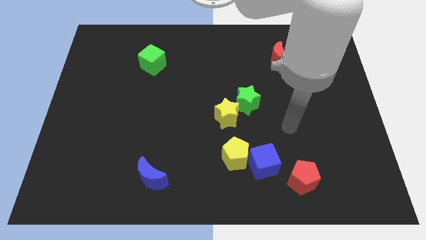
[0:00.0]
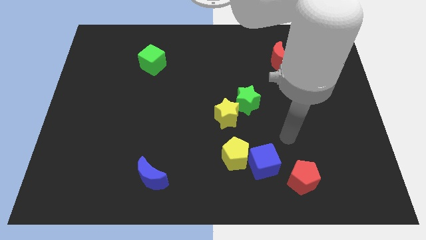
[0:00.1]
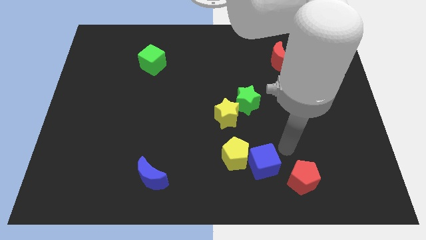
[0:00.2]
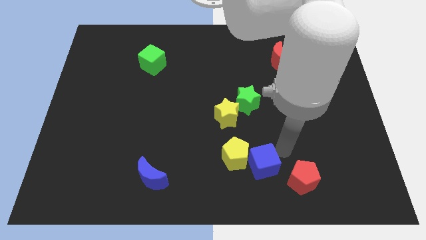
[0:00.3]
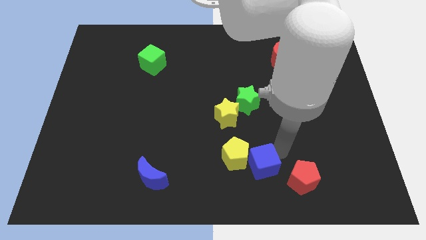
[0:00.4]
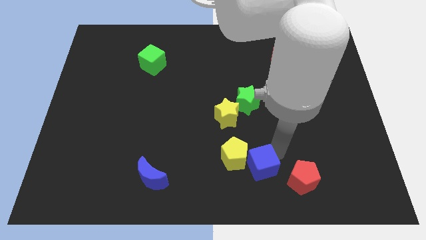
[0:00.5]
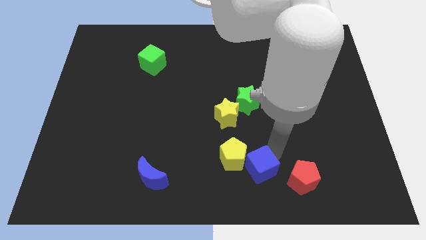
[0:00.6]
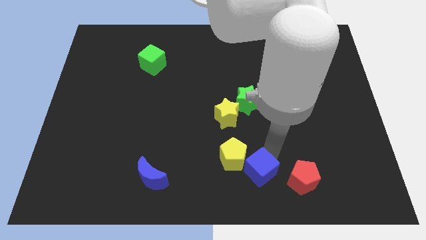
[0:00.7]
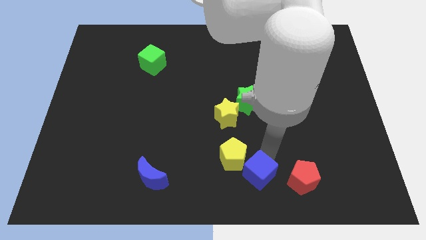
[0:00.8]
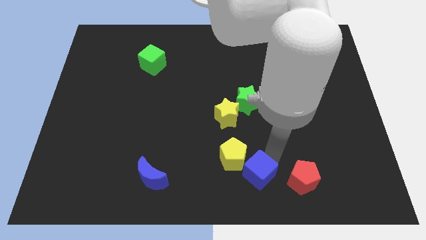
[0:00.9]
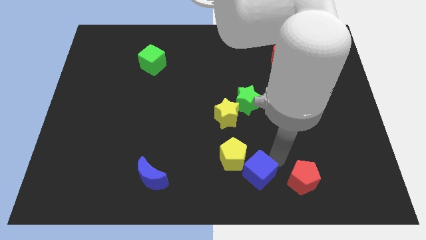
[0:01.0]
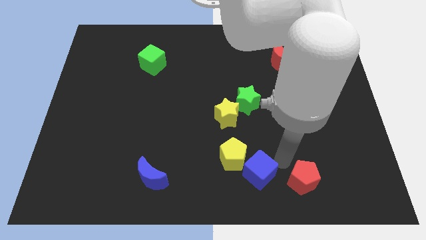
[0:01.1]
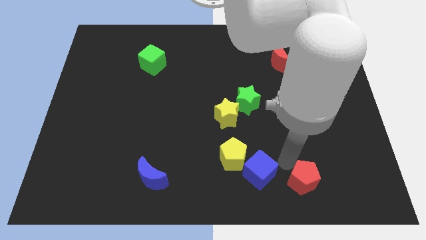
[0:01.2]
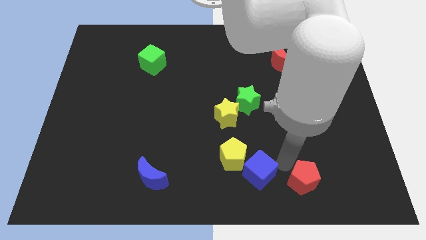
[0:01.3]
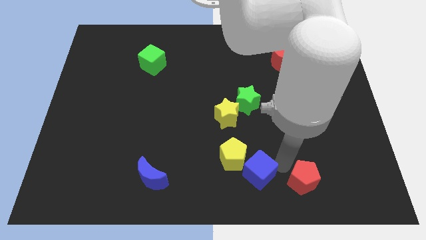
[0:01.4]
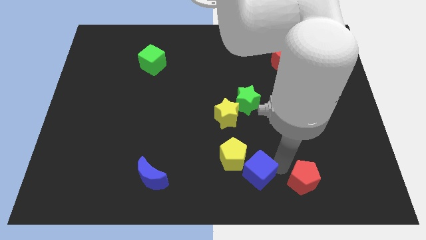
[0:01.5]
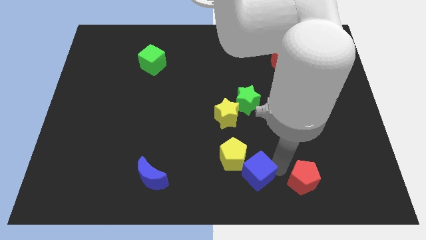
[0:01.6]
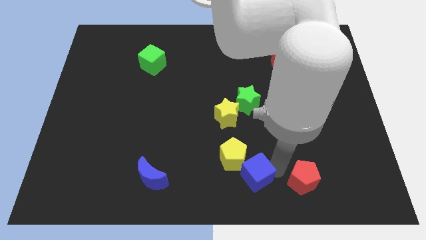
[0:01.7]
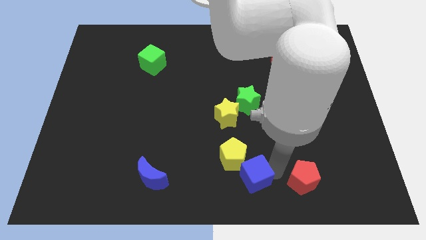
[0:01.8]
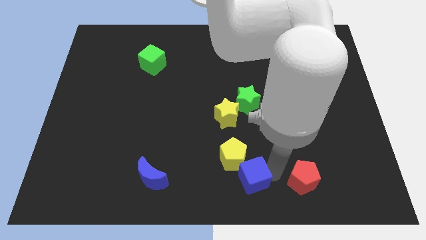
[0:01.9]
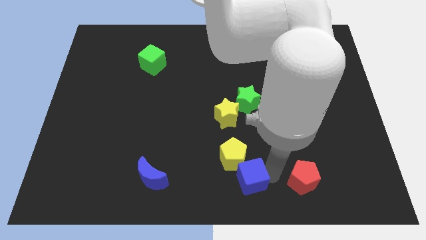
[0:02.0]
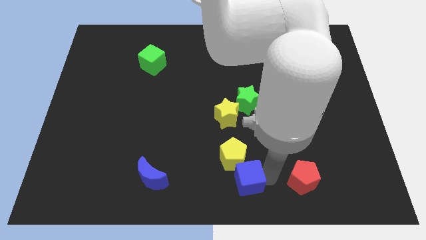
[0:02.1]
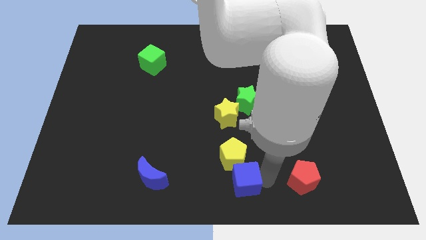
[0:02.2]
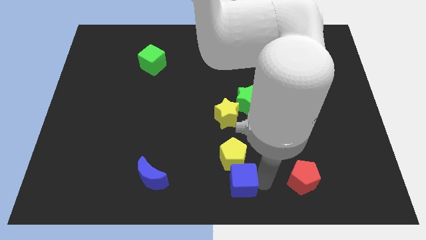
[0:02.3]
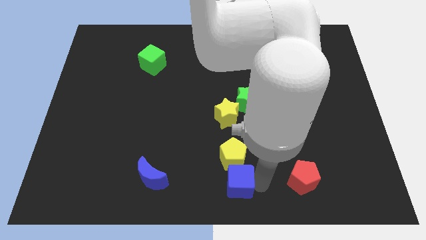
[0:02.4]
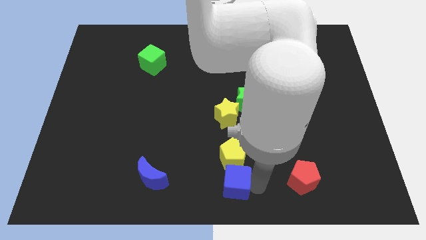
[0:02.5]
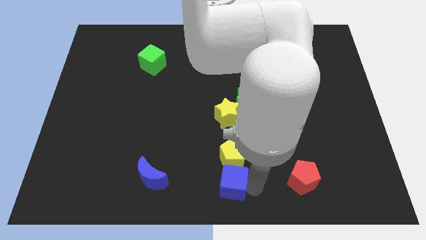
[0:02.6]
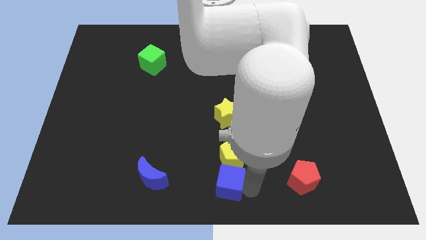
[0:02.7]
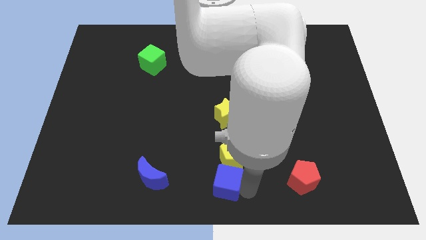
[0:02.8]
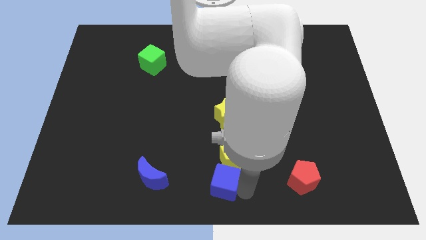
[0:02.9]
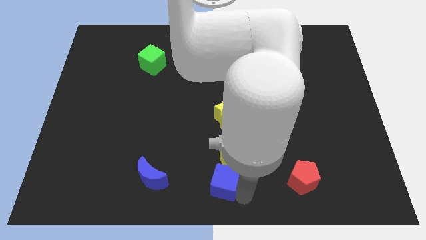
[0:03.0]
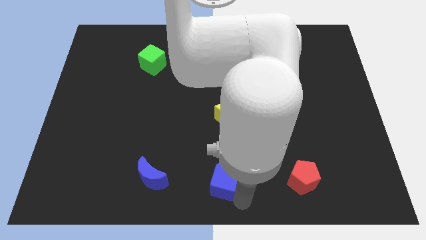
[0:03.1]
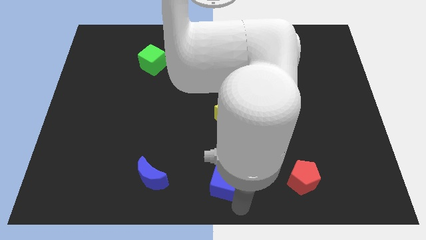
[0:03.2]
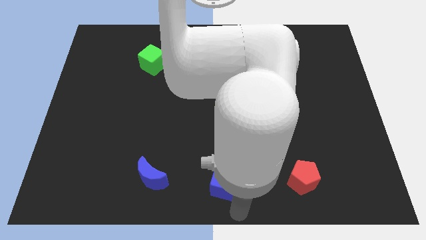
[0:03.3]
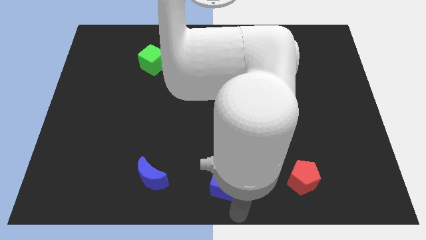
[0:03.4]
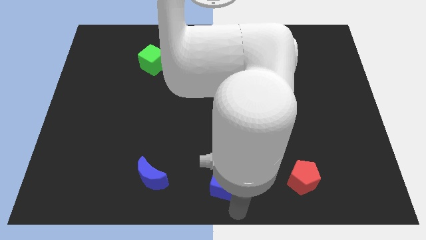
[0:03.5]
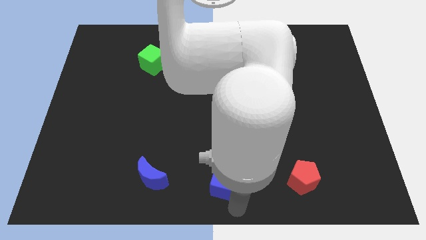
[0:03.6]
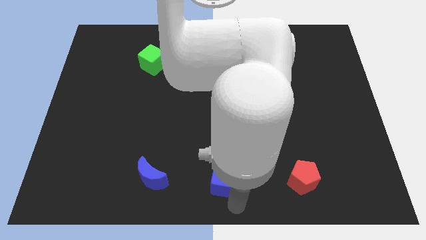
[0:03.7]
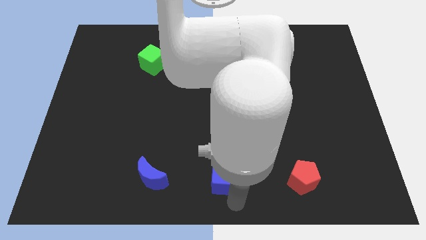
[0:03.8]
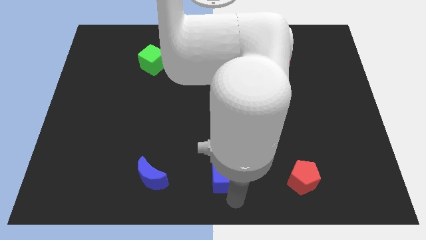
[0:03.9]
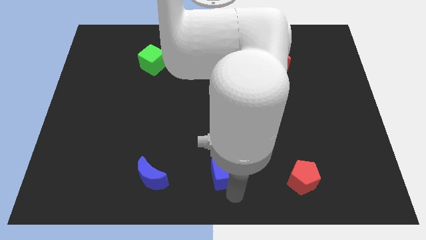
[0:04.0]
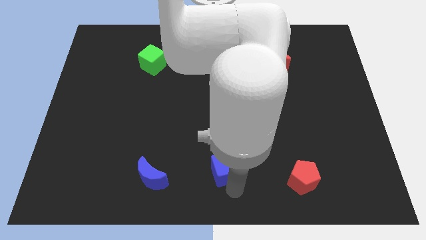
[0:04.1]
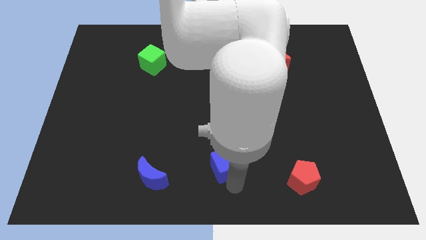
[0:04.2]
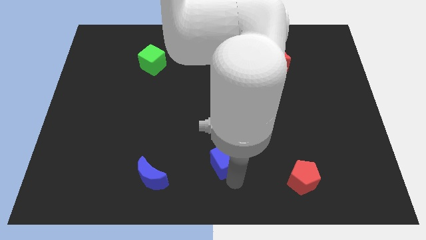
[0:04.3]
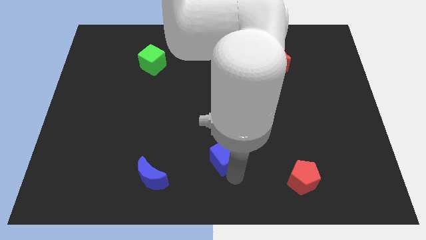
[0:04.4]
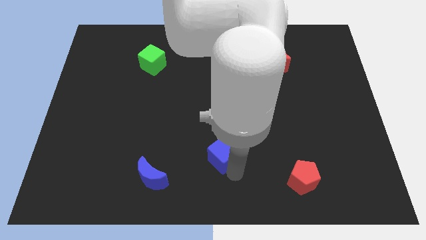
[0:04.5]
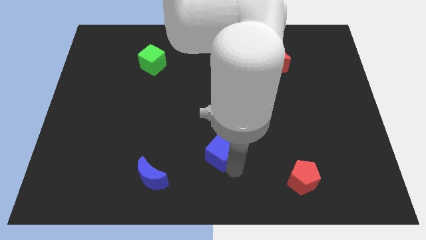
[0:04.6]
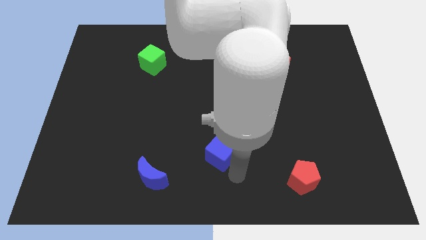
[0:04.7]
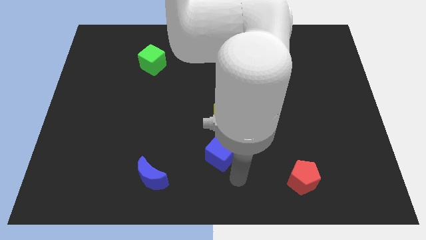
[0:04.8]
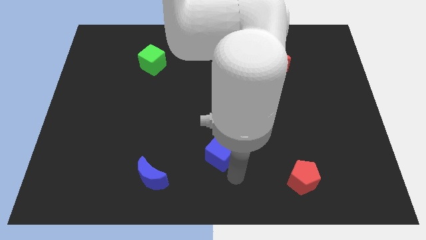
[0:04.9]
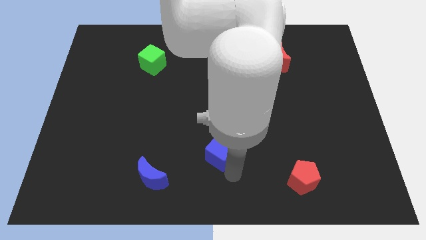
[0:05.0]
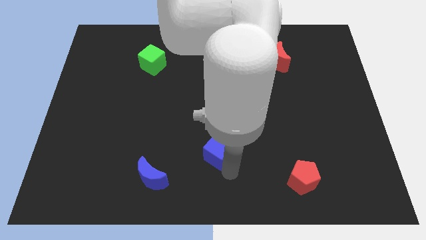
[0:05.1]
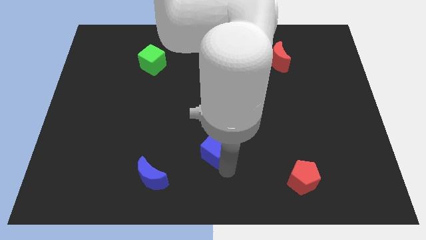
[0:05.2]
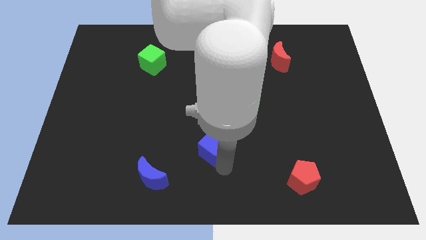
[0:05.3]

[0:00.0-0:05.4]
put the blue cube diagonally down and to the left of the yellow star

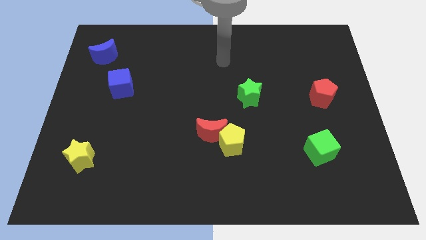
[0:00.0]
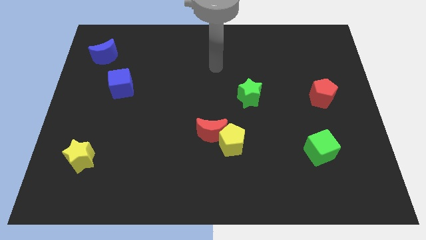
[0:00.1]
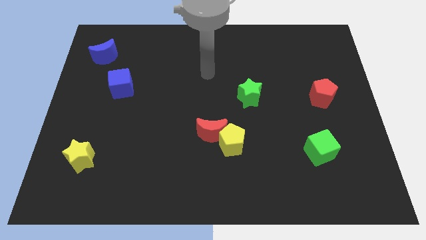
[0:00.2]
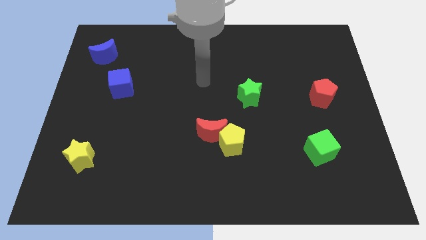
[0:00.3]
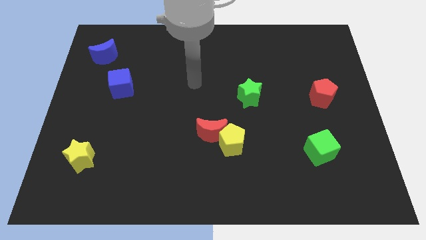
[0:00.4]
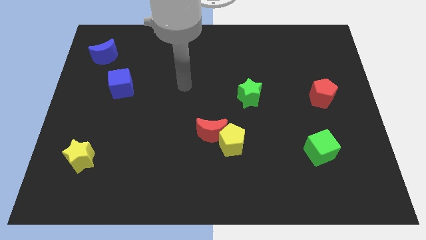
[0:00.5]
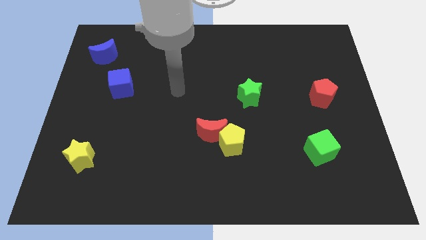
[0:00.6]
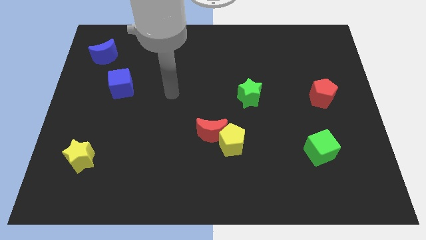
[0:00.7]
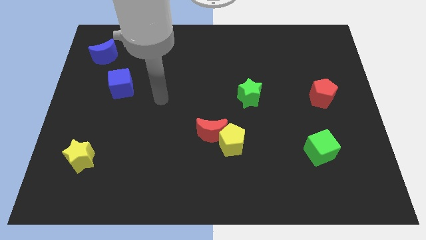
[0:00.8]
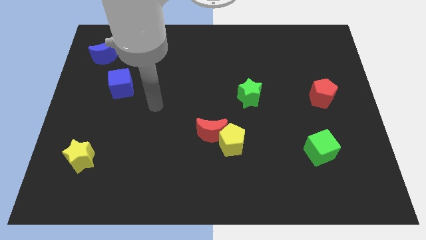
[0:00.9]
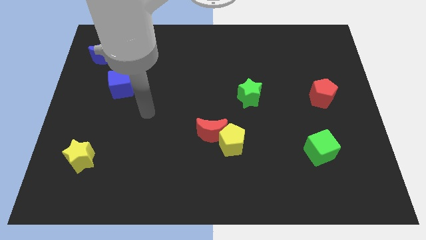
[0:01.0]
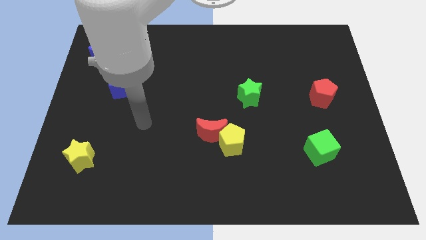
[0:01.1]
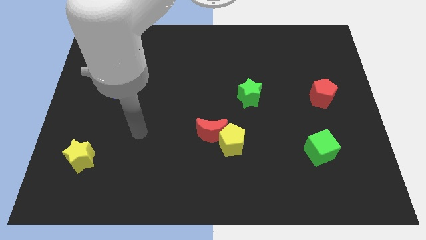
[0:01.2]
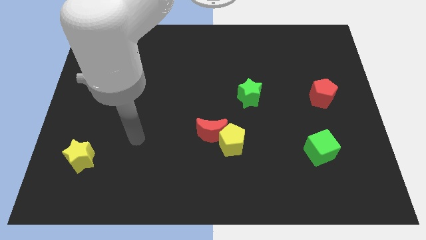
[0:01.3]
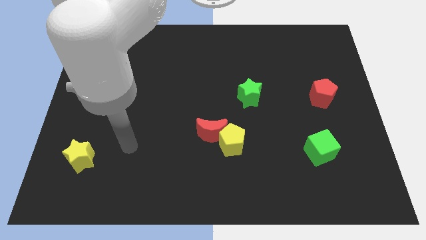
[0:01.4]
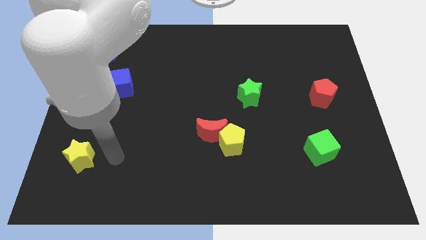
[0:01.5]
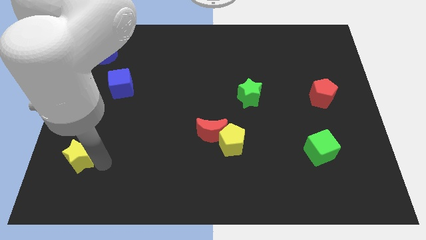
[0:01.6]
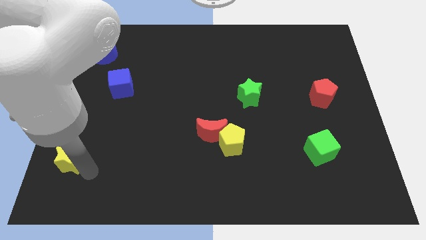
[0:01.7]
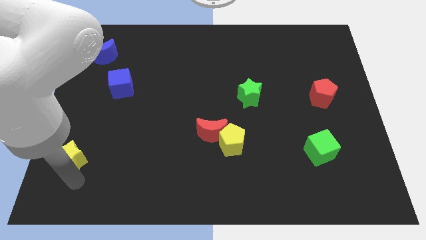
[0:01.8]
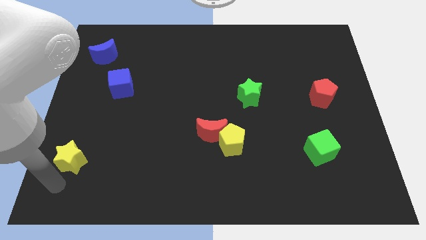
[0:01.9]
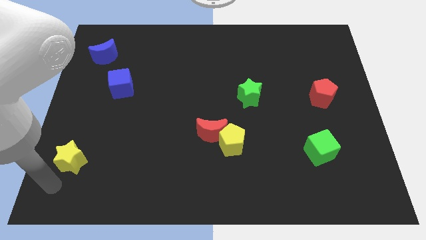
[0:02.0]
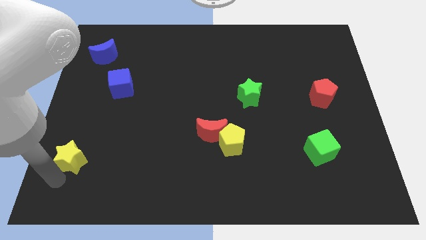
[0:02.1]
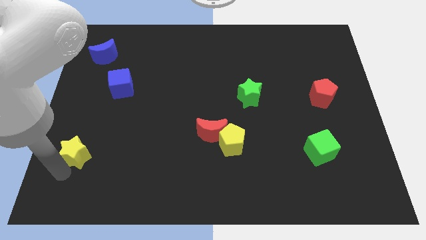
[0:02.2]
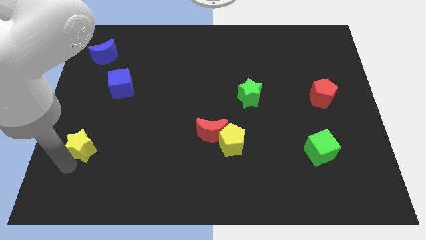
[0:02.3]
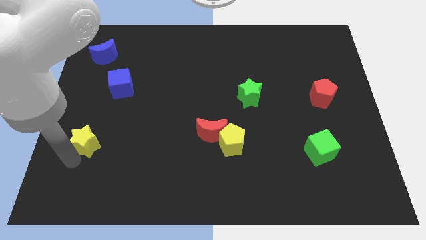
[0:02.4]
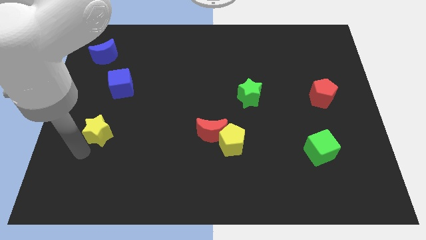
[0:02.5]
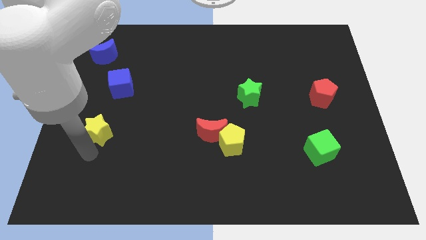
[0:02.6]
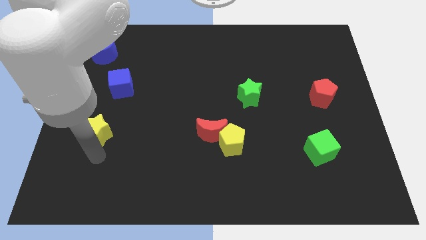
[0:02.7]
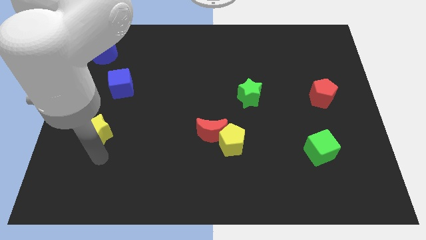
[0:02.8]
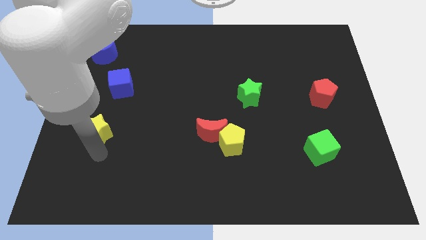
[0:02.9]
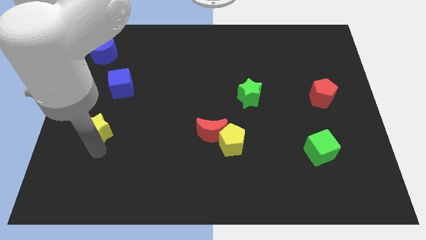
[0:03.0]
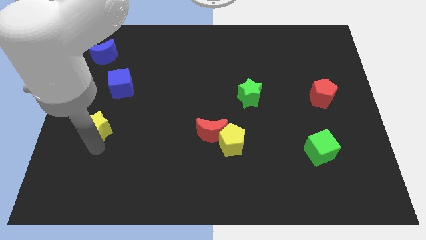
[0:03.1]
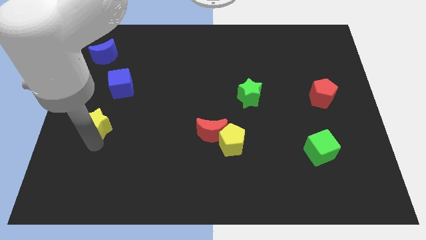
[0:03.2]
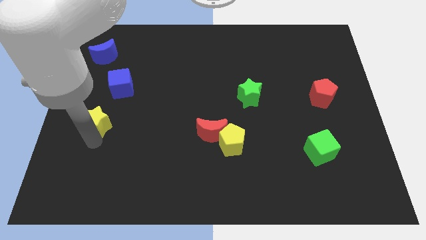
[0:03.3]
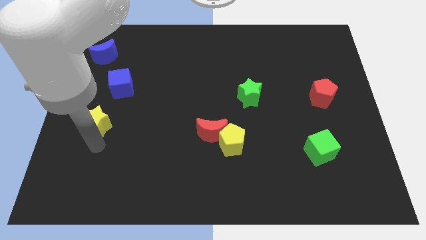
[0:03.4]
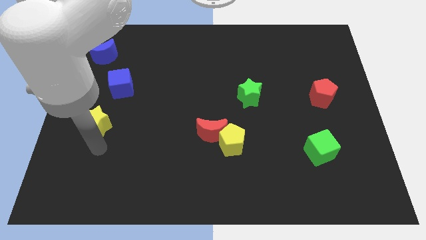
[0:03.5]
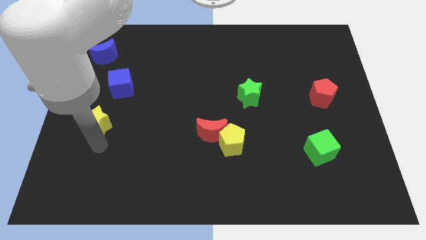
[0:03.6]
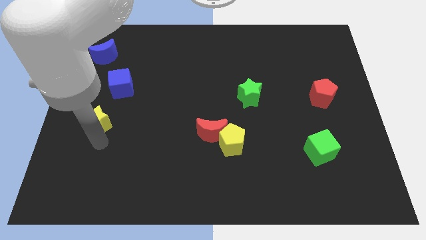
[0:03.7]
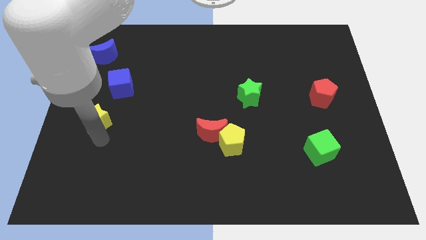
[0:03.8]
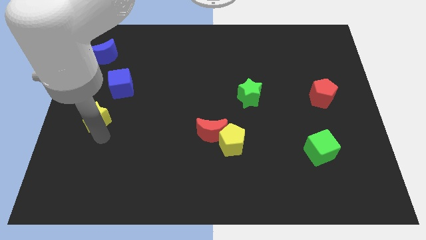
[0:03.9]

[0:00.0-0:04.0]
slide the yellow star diagonally down and to the left of the blue cube
